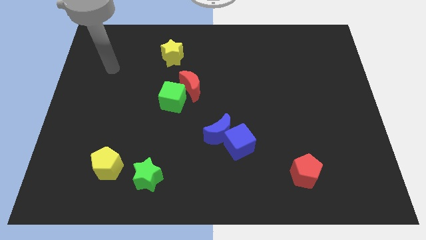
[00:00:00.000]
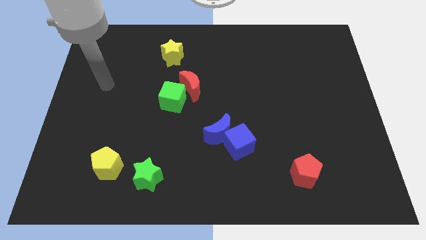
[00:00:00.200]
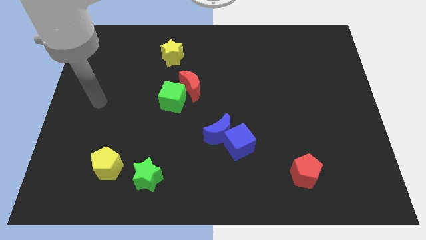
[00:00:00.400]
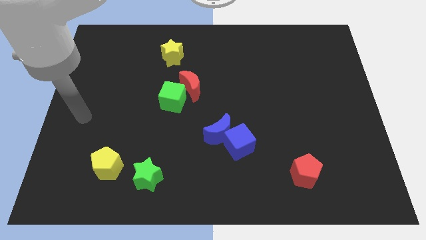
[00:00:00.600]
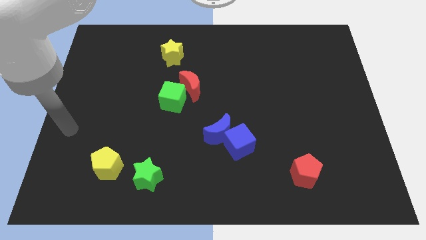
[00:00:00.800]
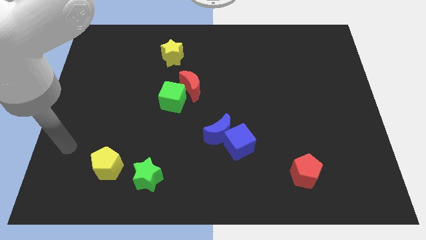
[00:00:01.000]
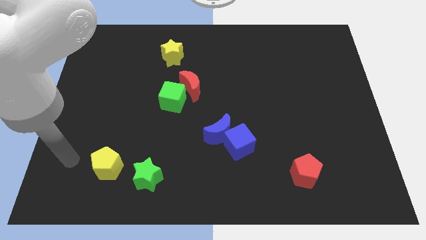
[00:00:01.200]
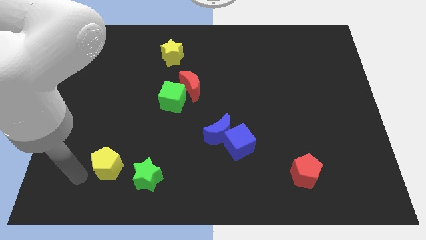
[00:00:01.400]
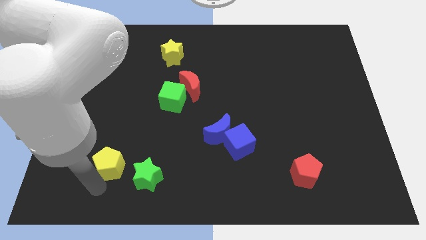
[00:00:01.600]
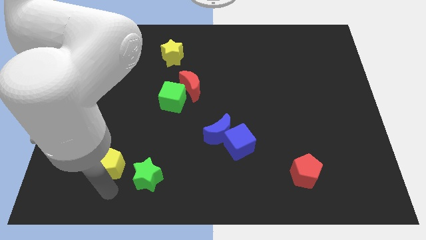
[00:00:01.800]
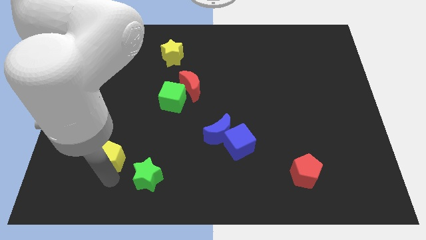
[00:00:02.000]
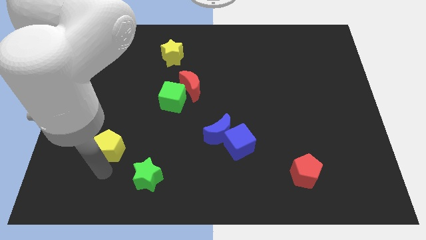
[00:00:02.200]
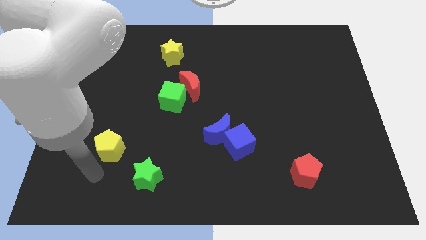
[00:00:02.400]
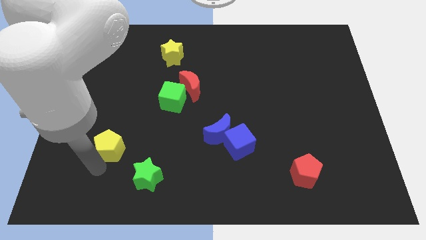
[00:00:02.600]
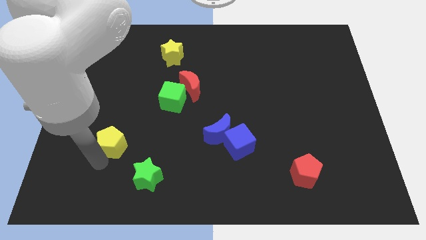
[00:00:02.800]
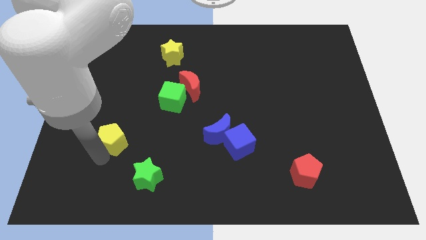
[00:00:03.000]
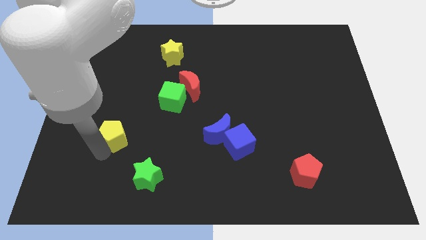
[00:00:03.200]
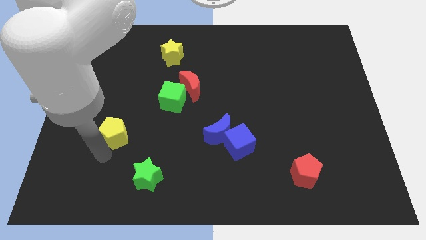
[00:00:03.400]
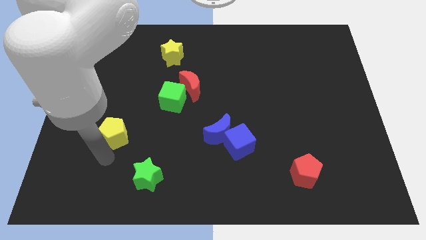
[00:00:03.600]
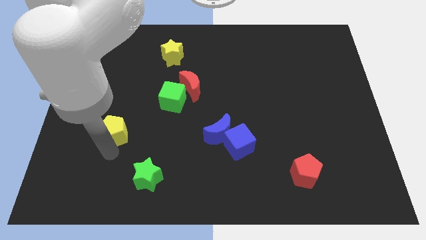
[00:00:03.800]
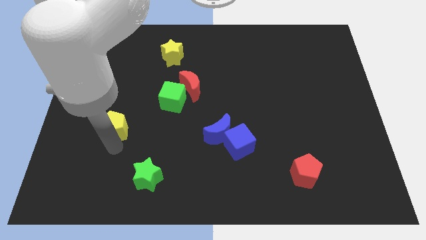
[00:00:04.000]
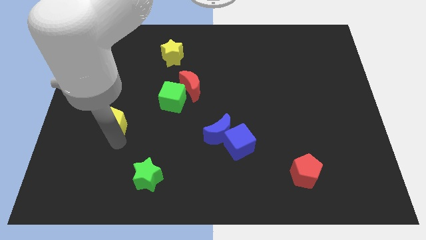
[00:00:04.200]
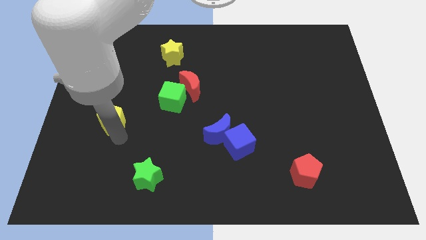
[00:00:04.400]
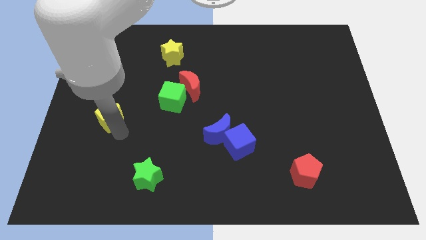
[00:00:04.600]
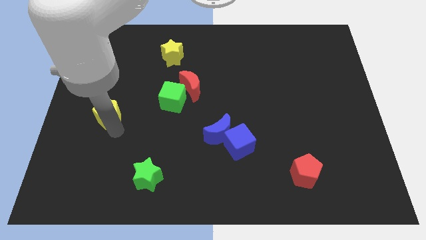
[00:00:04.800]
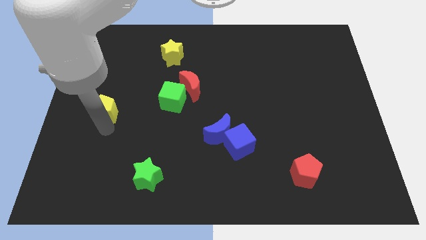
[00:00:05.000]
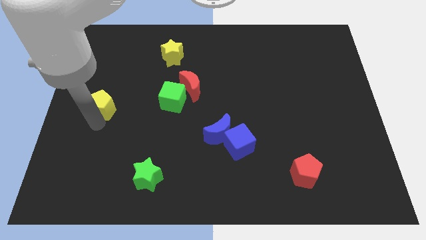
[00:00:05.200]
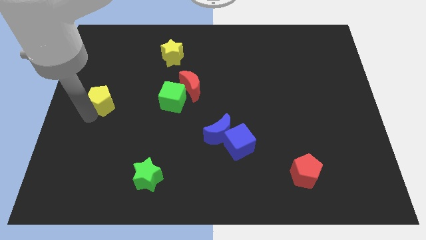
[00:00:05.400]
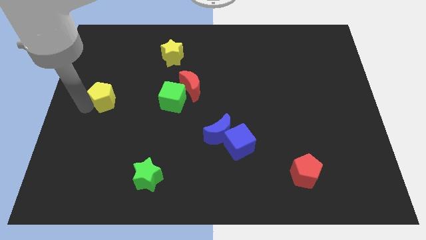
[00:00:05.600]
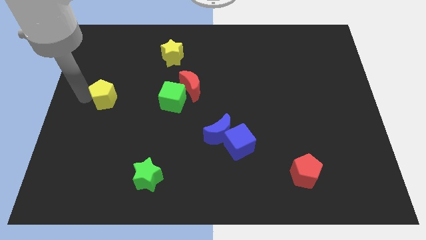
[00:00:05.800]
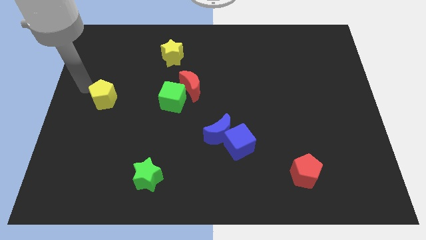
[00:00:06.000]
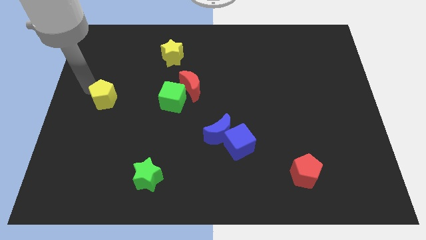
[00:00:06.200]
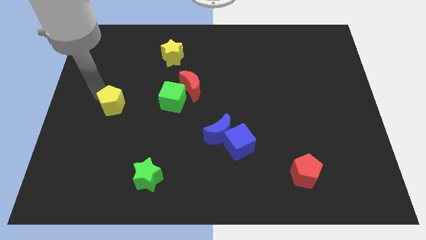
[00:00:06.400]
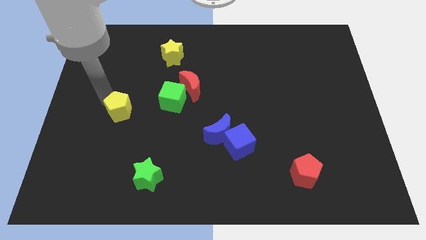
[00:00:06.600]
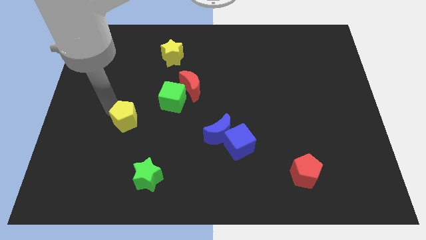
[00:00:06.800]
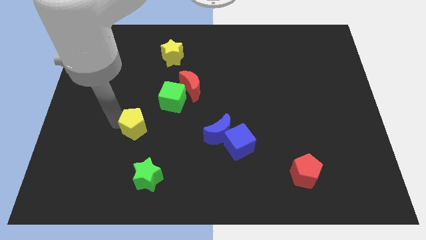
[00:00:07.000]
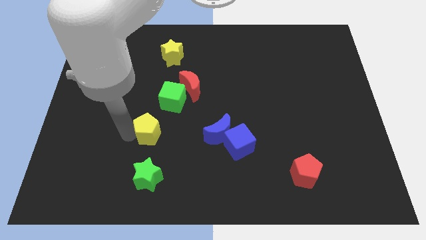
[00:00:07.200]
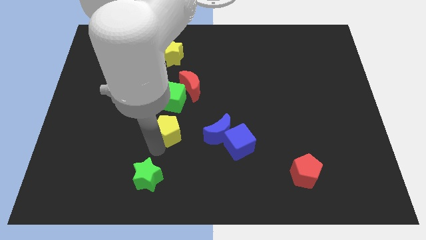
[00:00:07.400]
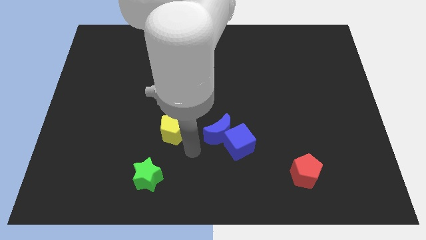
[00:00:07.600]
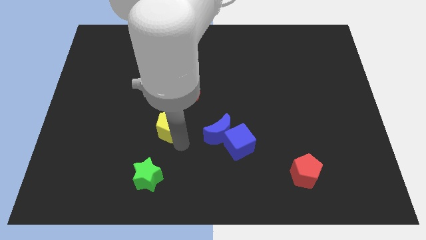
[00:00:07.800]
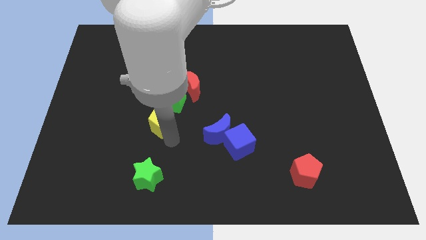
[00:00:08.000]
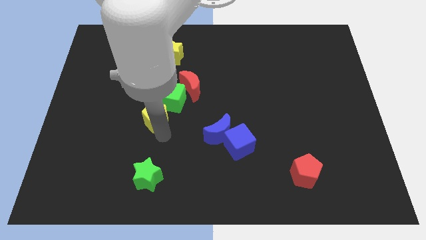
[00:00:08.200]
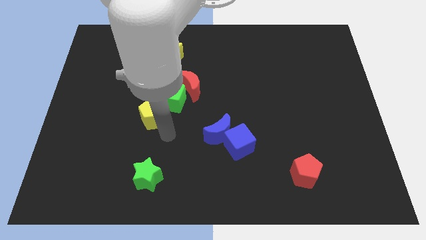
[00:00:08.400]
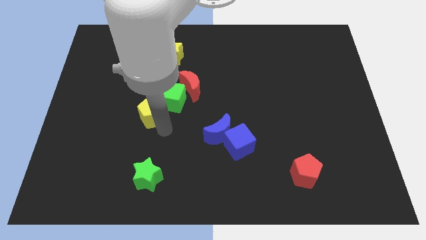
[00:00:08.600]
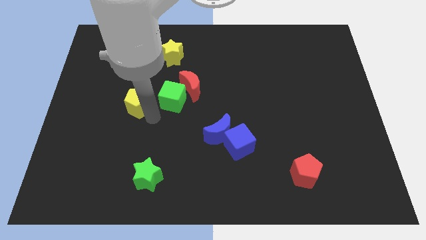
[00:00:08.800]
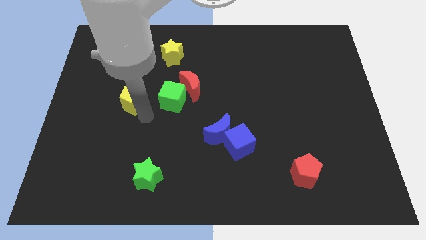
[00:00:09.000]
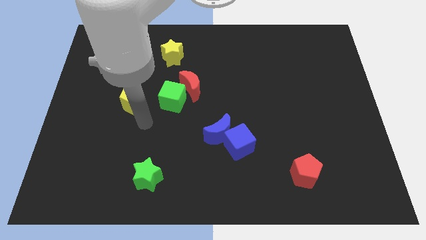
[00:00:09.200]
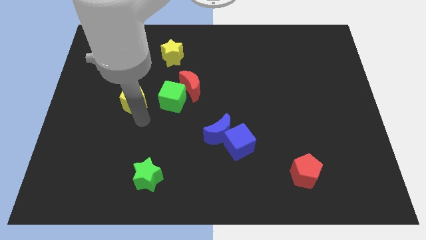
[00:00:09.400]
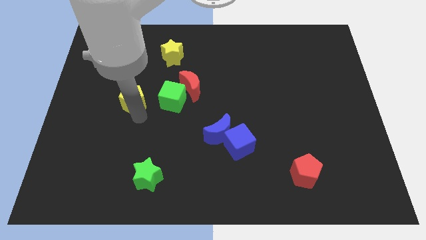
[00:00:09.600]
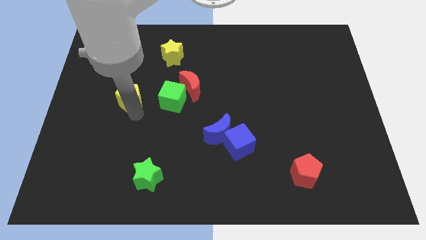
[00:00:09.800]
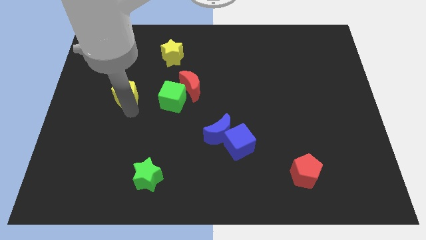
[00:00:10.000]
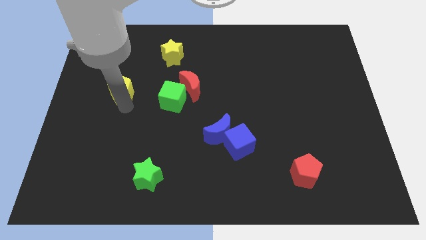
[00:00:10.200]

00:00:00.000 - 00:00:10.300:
move the yellow pentagon up

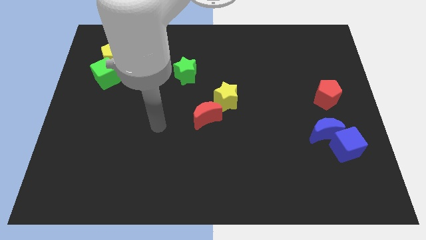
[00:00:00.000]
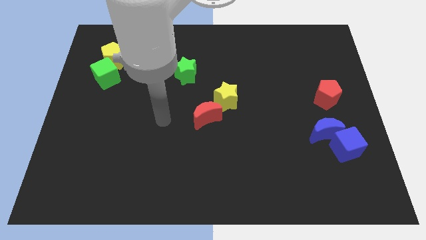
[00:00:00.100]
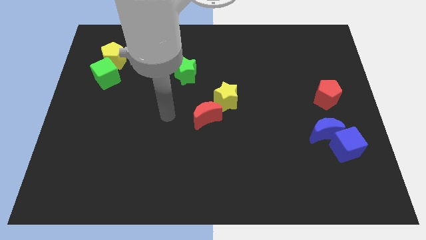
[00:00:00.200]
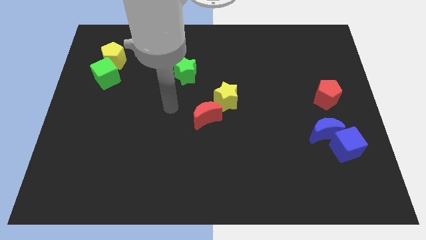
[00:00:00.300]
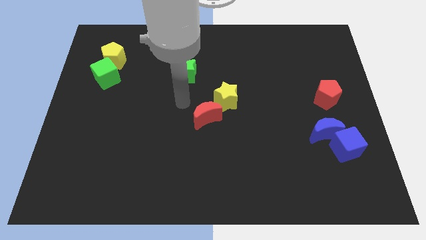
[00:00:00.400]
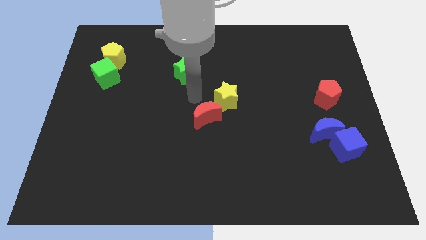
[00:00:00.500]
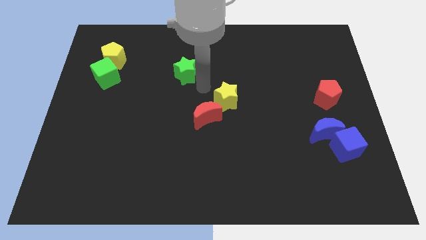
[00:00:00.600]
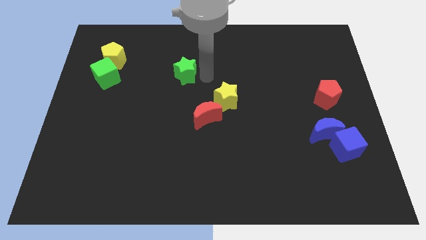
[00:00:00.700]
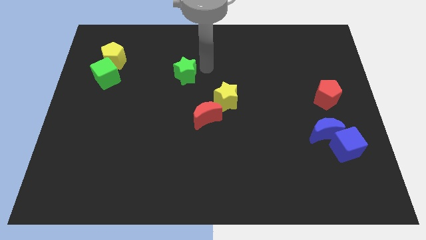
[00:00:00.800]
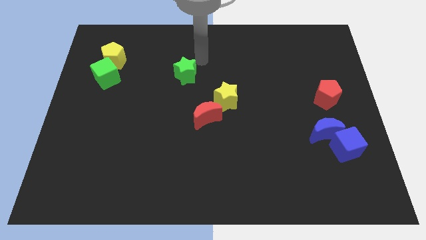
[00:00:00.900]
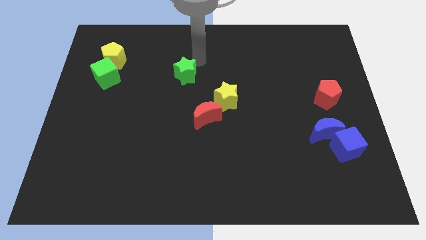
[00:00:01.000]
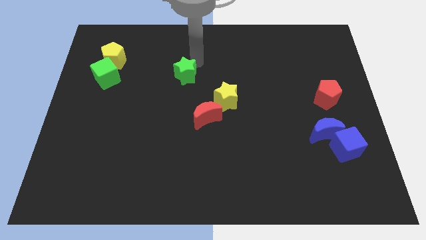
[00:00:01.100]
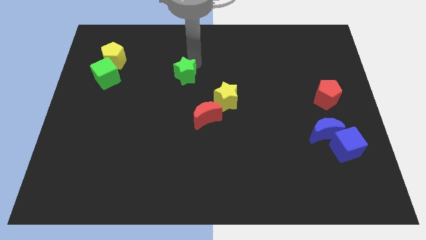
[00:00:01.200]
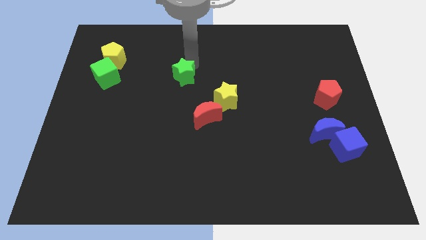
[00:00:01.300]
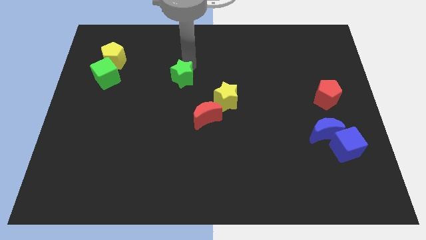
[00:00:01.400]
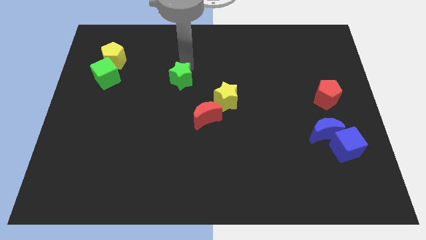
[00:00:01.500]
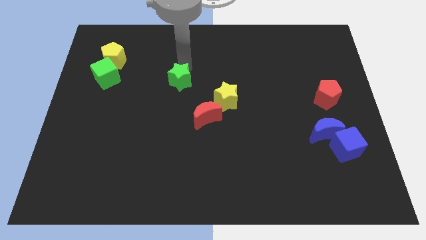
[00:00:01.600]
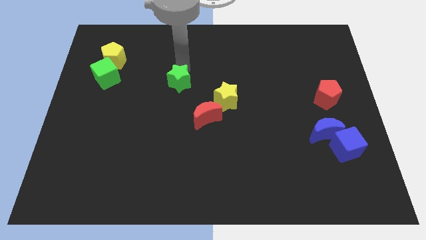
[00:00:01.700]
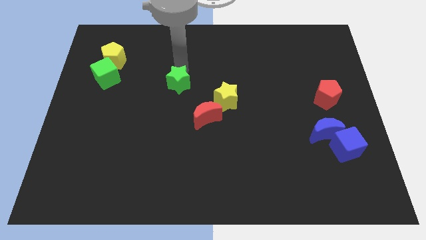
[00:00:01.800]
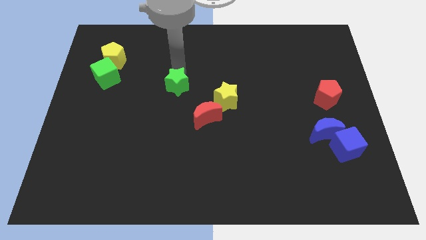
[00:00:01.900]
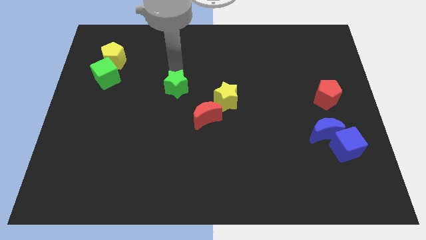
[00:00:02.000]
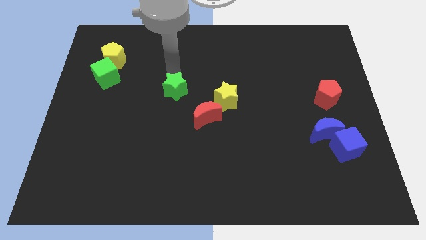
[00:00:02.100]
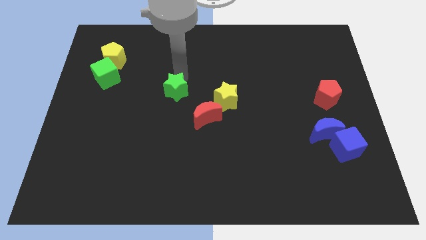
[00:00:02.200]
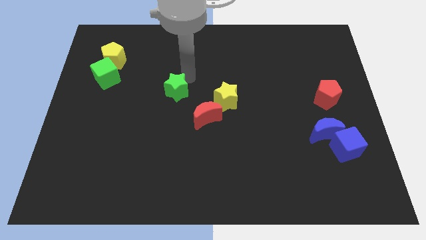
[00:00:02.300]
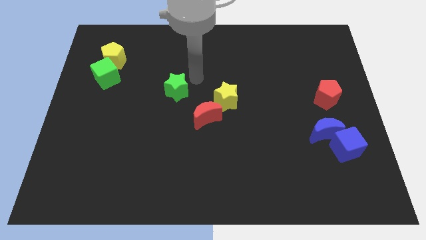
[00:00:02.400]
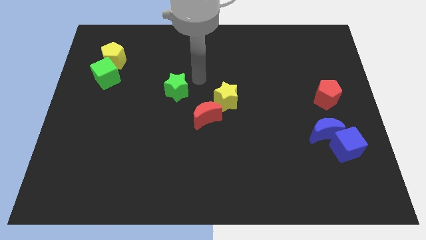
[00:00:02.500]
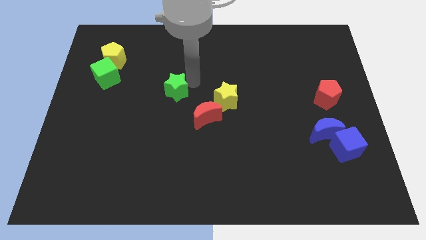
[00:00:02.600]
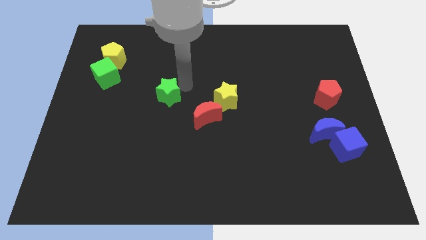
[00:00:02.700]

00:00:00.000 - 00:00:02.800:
move the green star diagonally downwards and to the left a little bit

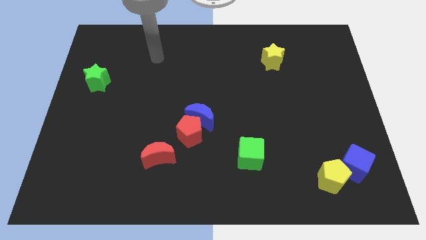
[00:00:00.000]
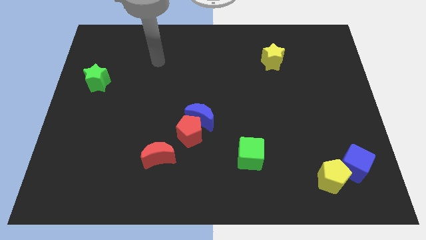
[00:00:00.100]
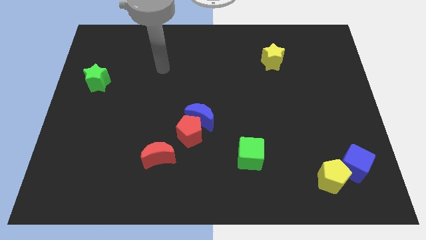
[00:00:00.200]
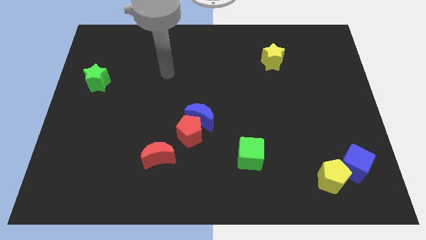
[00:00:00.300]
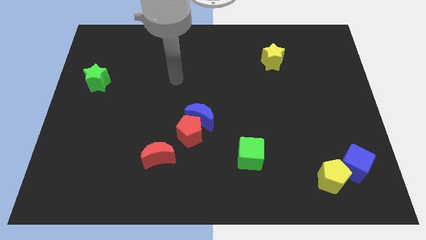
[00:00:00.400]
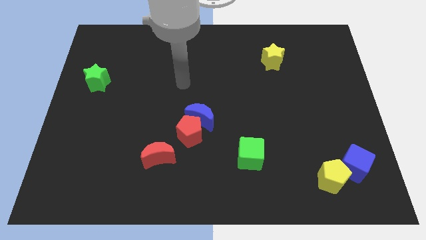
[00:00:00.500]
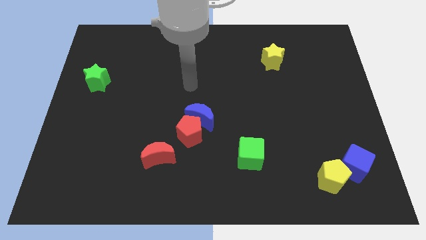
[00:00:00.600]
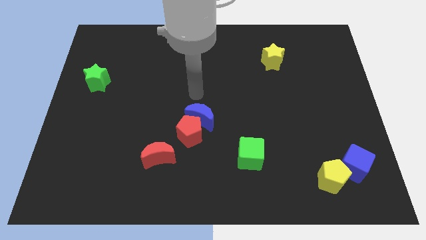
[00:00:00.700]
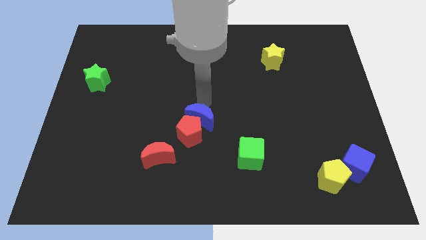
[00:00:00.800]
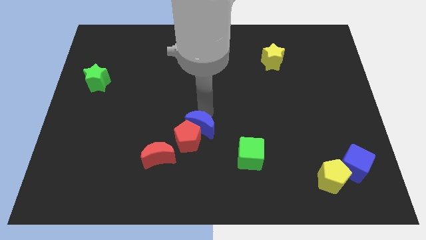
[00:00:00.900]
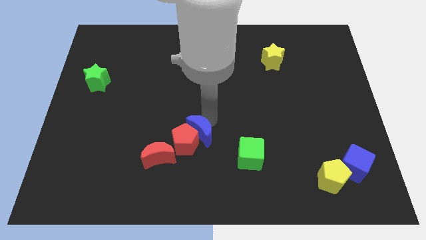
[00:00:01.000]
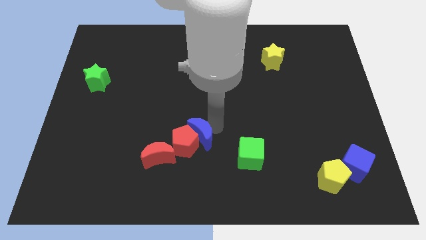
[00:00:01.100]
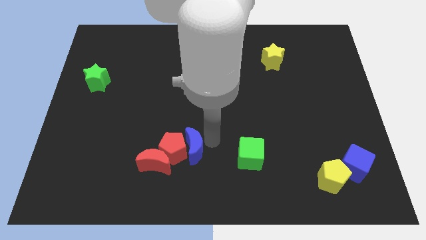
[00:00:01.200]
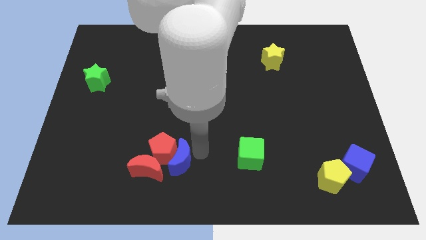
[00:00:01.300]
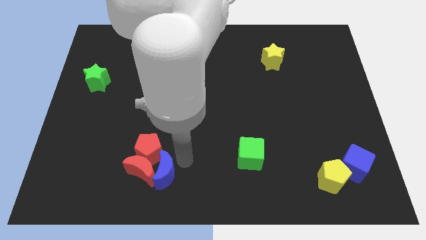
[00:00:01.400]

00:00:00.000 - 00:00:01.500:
move the red pentagon left slightly
